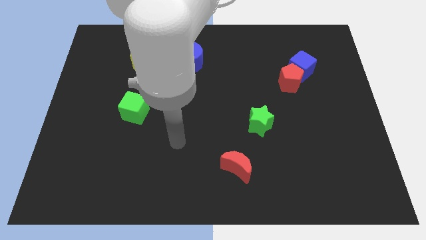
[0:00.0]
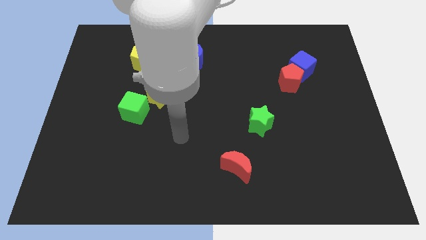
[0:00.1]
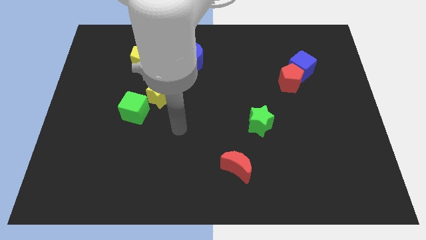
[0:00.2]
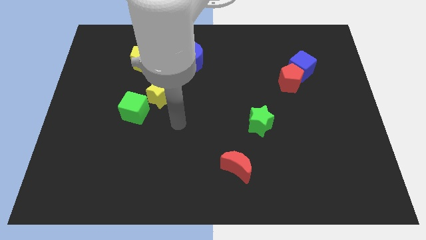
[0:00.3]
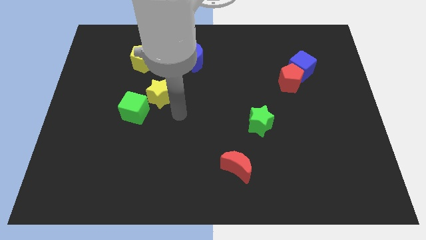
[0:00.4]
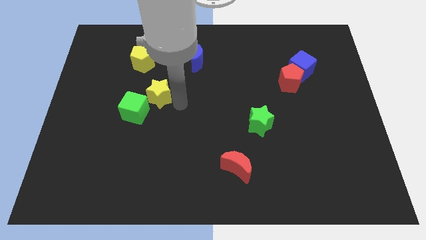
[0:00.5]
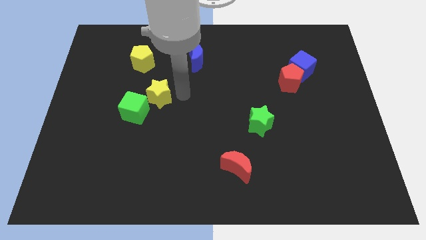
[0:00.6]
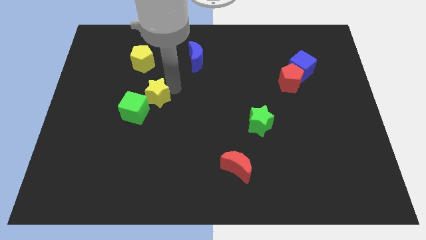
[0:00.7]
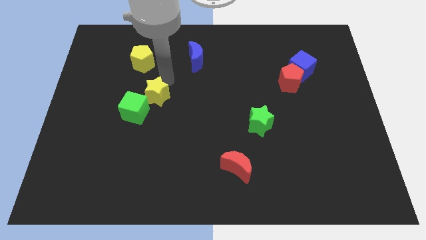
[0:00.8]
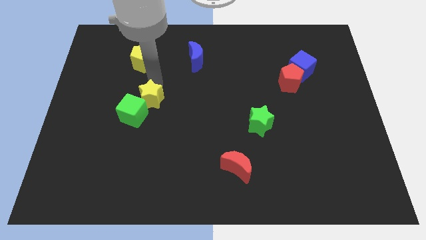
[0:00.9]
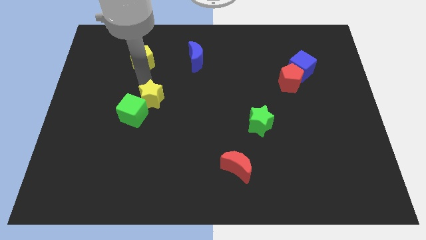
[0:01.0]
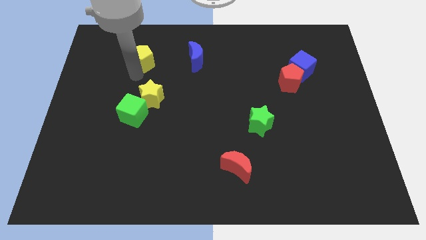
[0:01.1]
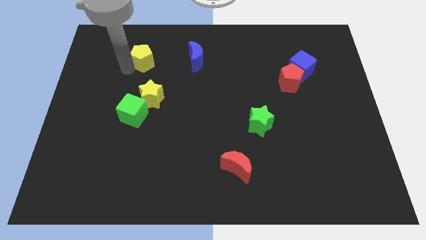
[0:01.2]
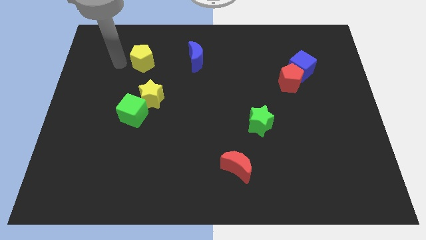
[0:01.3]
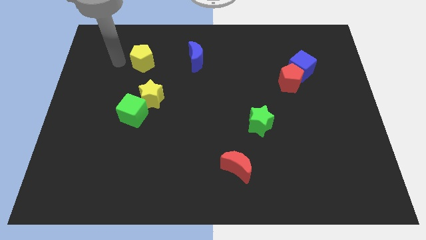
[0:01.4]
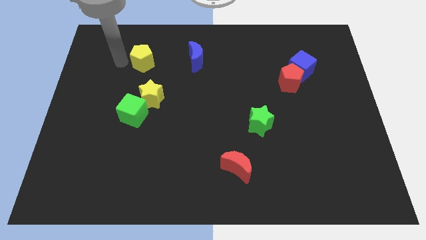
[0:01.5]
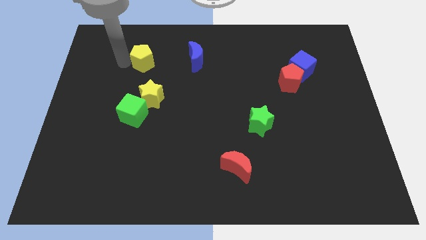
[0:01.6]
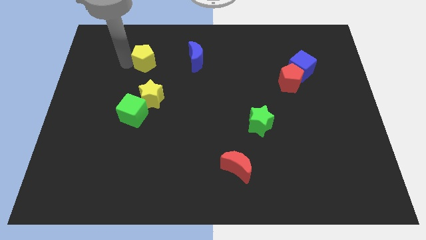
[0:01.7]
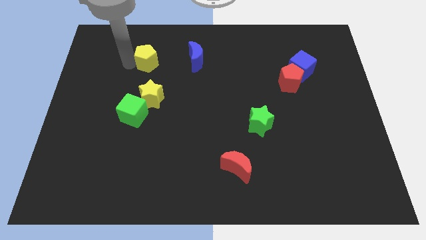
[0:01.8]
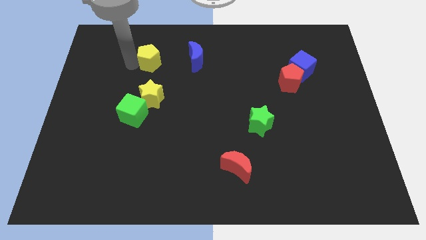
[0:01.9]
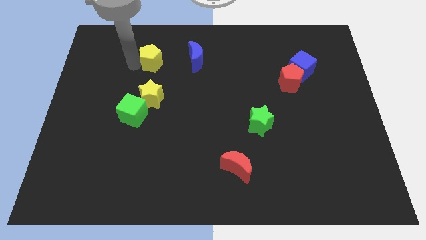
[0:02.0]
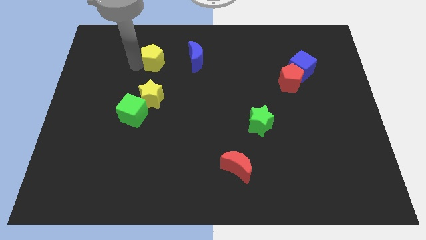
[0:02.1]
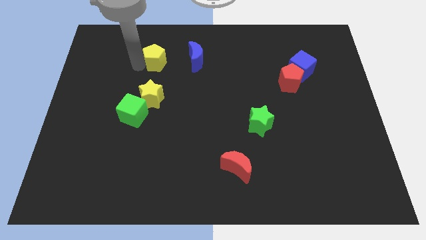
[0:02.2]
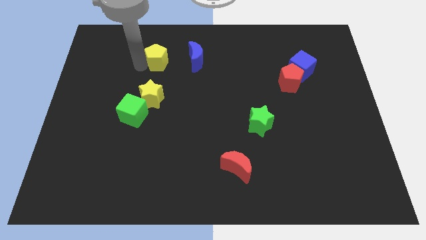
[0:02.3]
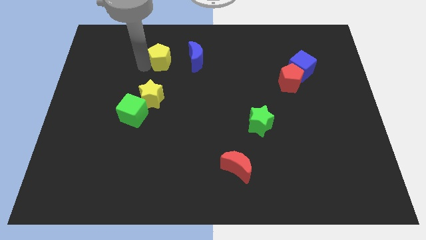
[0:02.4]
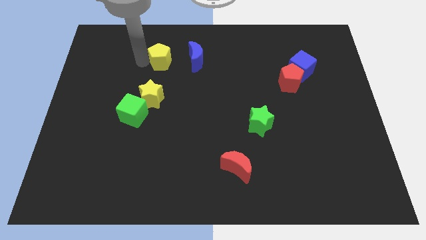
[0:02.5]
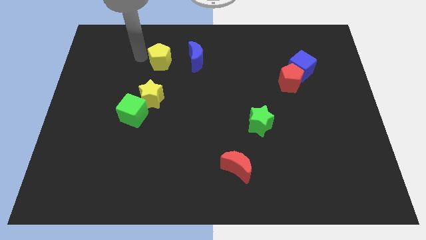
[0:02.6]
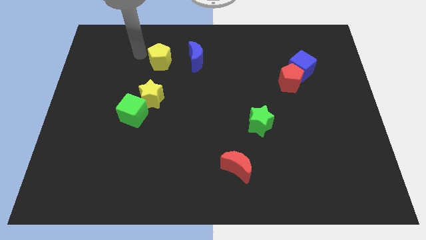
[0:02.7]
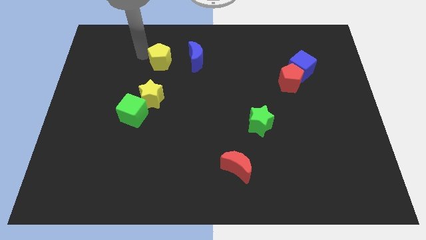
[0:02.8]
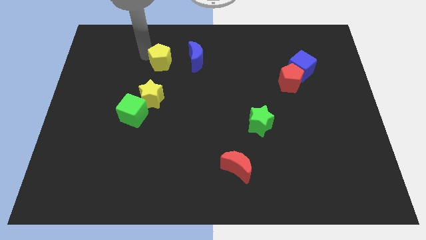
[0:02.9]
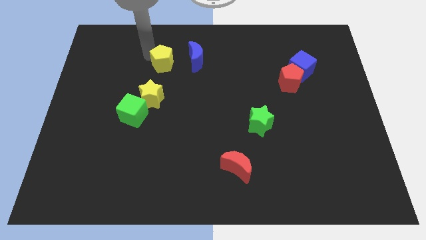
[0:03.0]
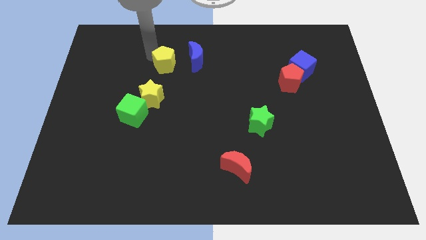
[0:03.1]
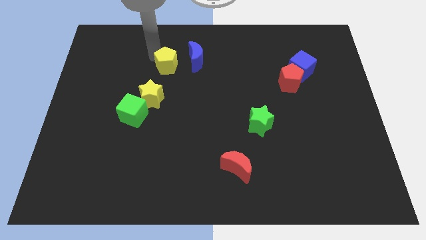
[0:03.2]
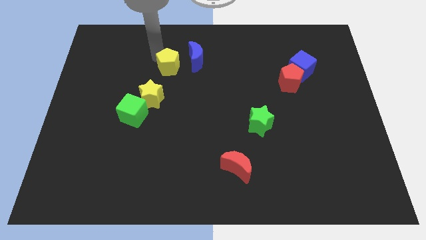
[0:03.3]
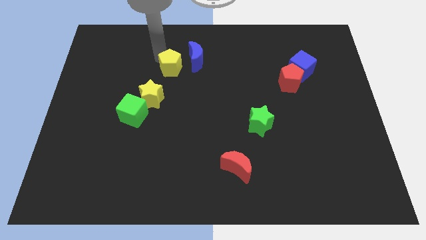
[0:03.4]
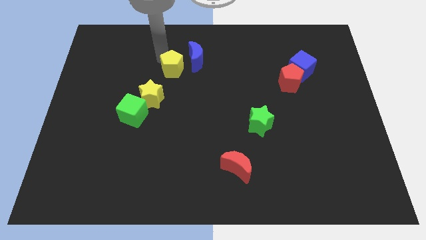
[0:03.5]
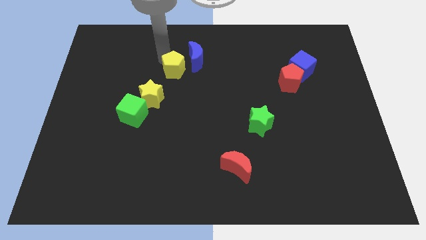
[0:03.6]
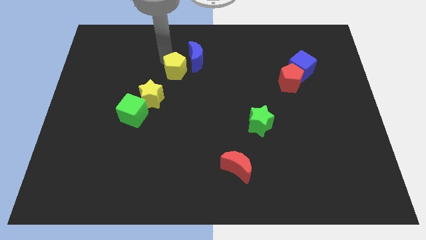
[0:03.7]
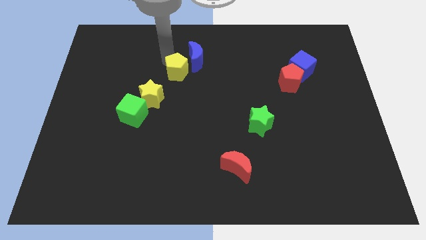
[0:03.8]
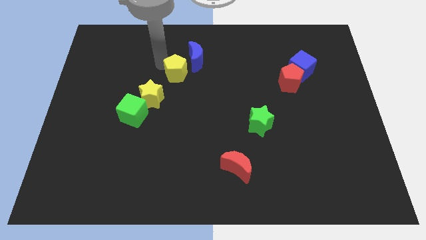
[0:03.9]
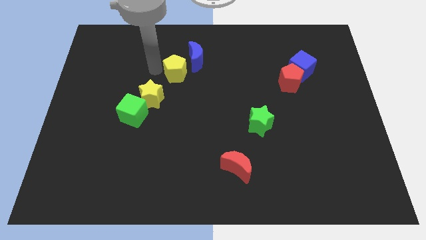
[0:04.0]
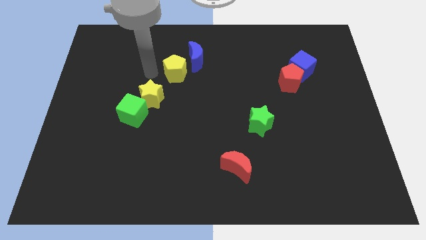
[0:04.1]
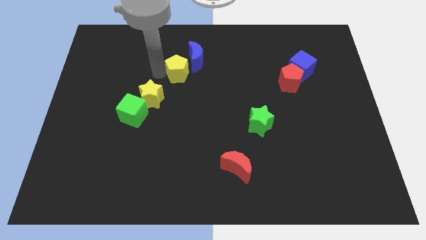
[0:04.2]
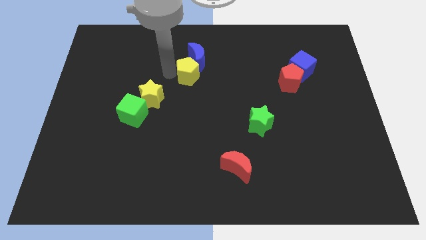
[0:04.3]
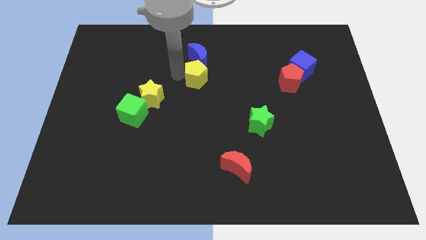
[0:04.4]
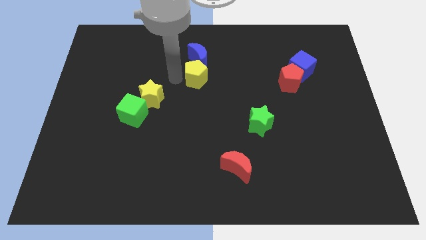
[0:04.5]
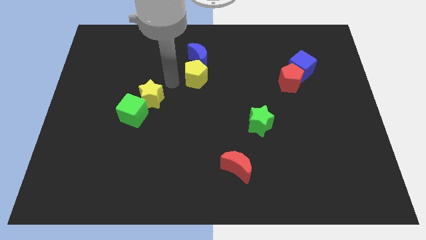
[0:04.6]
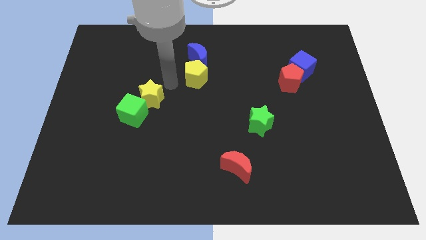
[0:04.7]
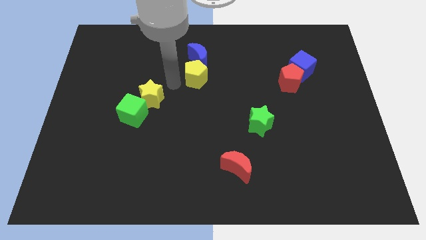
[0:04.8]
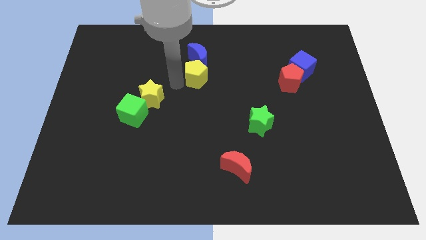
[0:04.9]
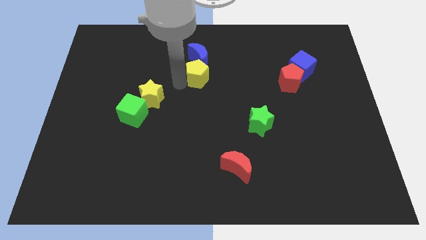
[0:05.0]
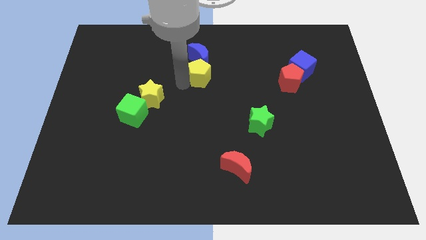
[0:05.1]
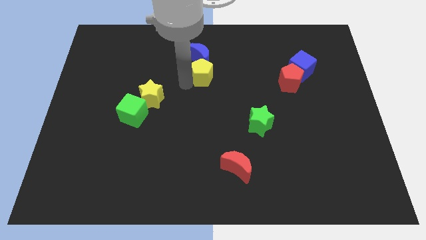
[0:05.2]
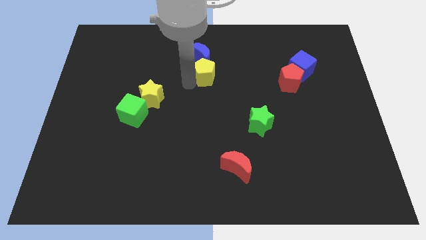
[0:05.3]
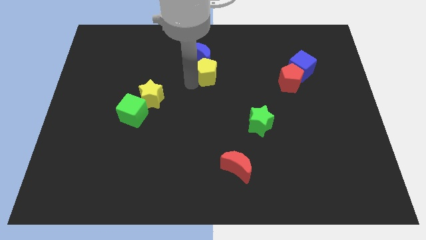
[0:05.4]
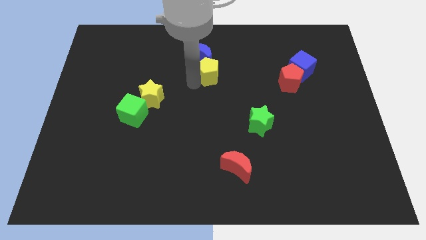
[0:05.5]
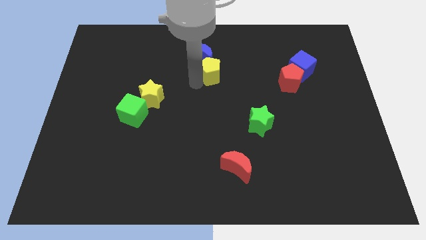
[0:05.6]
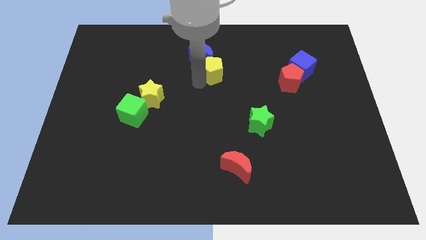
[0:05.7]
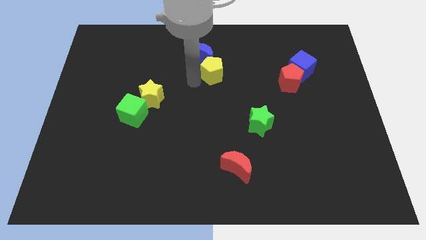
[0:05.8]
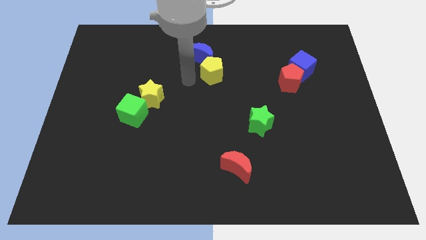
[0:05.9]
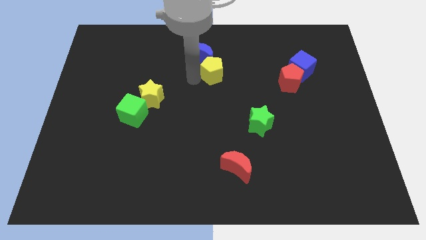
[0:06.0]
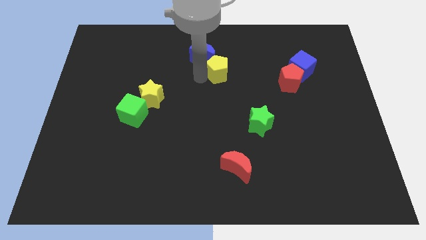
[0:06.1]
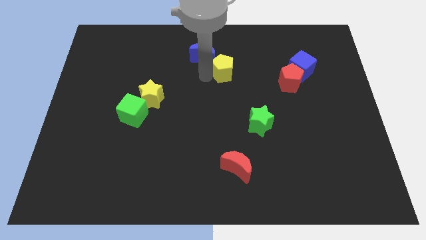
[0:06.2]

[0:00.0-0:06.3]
push the yellow pentagon right

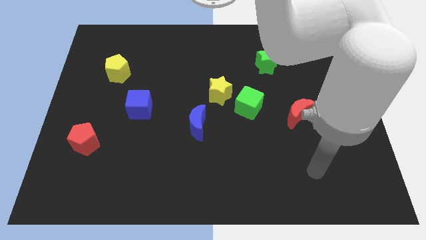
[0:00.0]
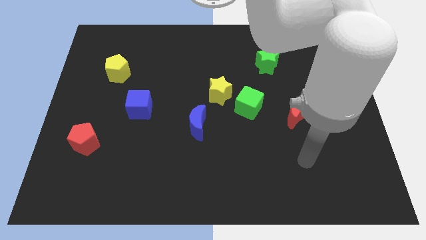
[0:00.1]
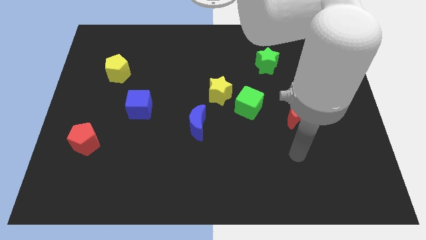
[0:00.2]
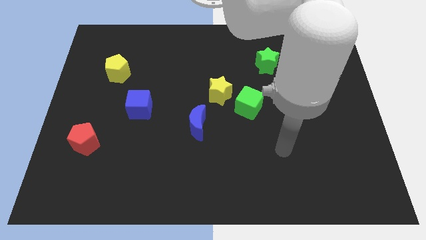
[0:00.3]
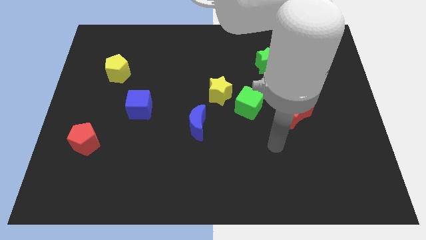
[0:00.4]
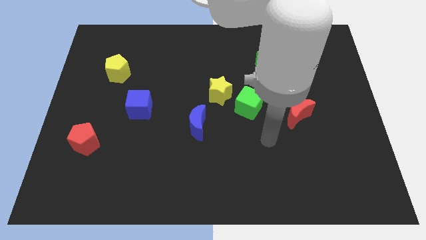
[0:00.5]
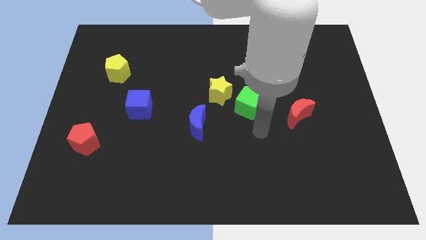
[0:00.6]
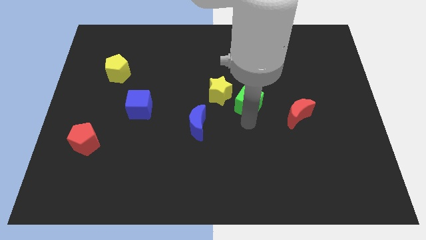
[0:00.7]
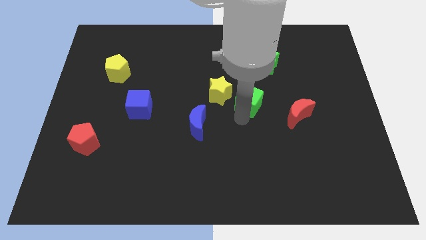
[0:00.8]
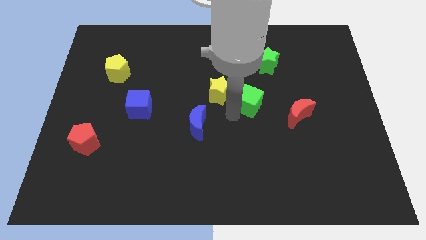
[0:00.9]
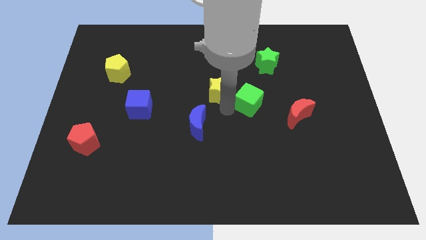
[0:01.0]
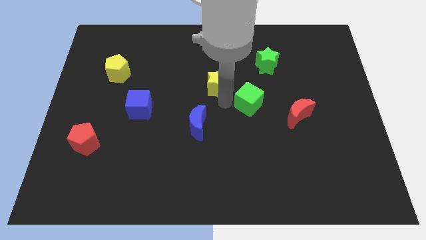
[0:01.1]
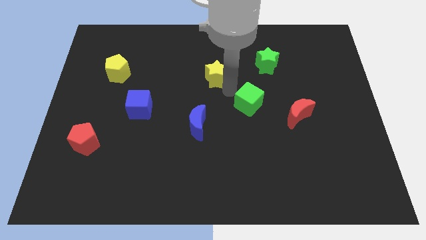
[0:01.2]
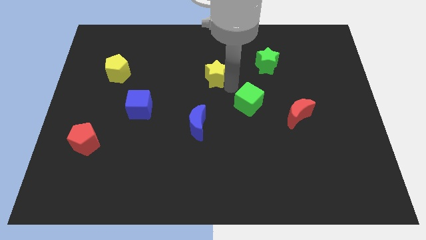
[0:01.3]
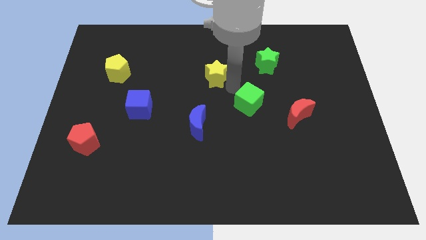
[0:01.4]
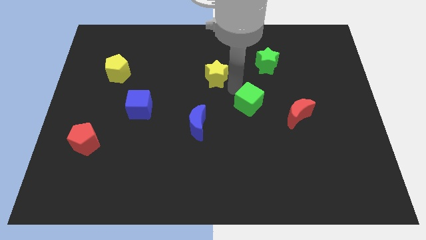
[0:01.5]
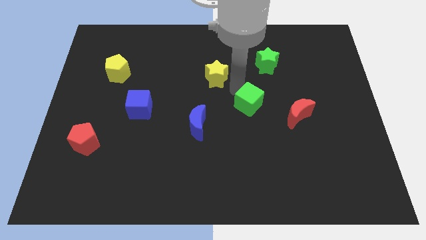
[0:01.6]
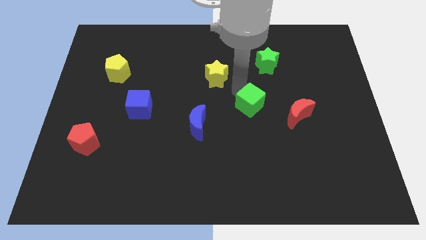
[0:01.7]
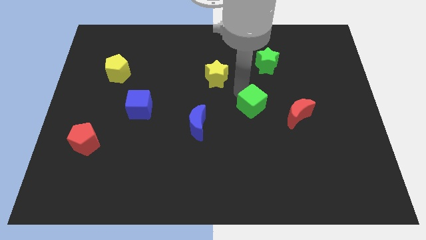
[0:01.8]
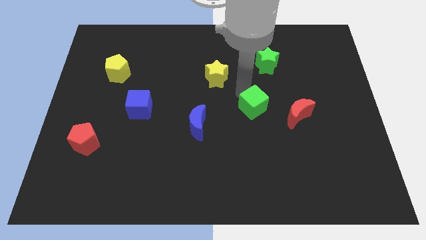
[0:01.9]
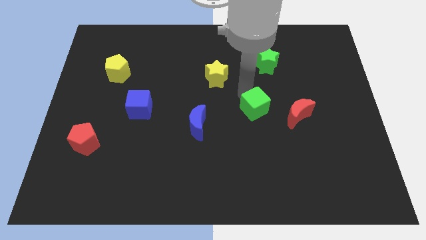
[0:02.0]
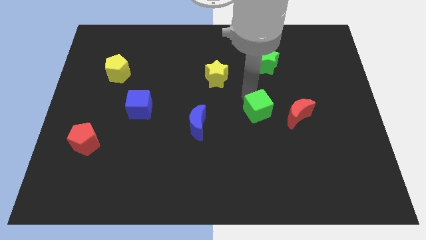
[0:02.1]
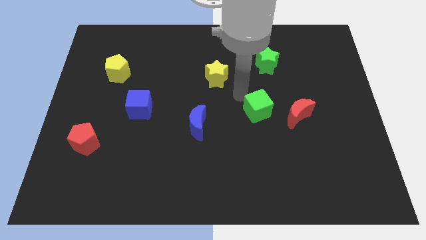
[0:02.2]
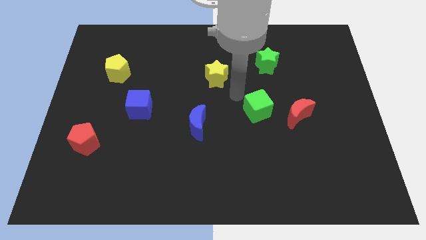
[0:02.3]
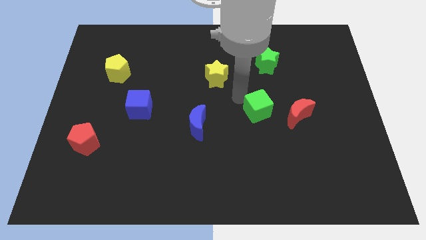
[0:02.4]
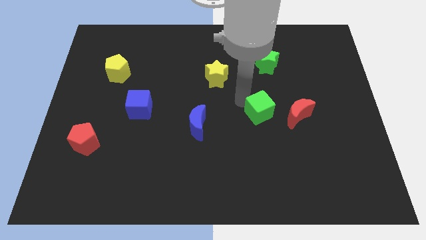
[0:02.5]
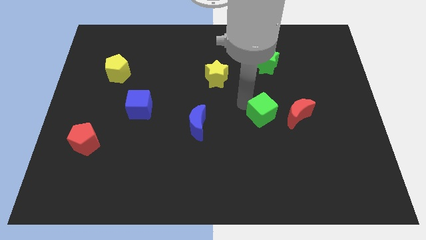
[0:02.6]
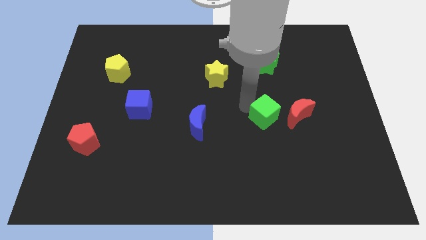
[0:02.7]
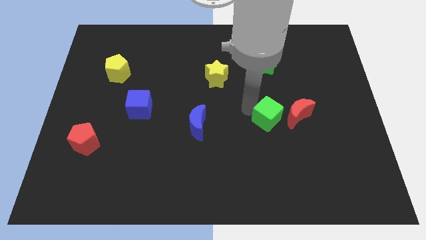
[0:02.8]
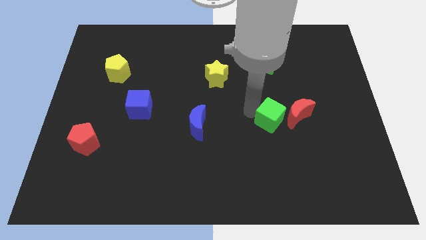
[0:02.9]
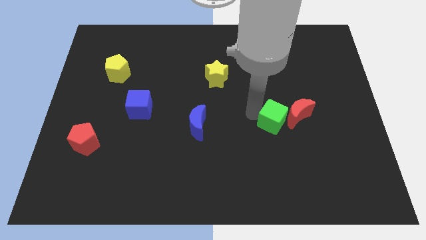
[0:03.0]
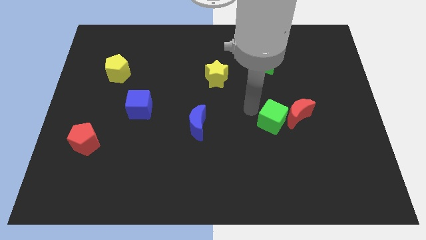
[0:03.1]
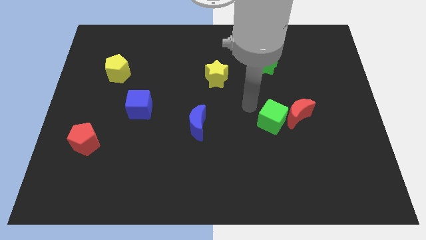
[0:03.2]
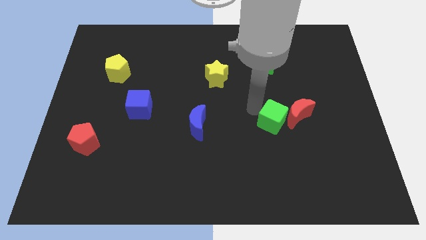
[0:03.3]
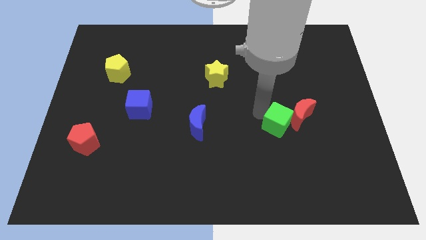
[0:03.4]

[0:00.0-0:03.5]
push the green cube a little down and to the right diagonally
